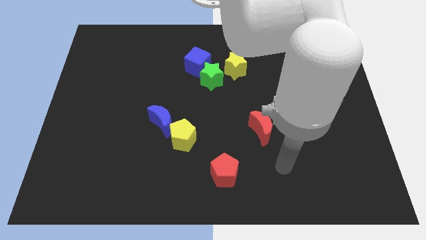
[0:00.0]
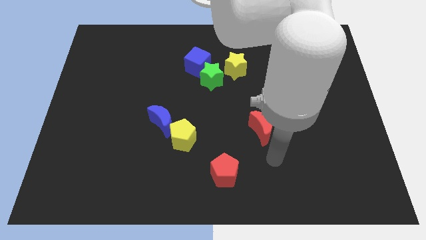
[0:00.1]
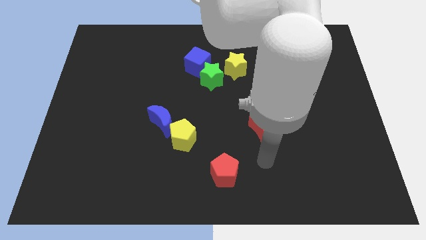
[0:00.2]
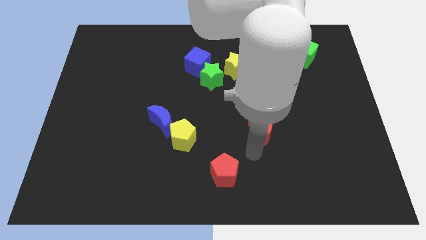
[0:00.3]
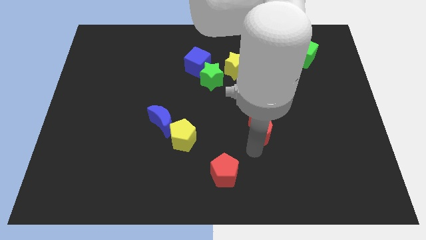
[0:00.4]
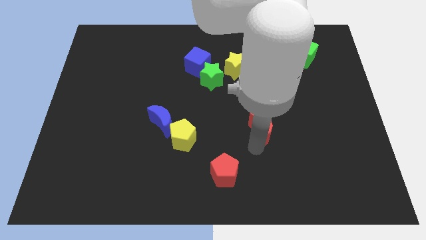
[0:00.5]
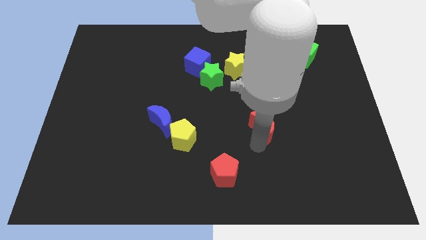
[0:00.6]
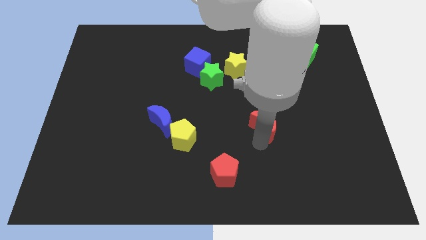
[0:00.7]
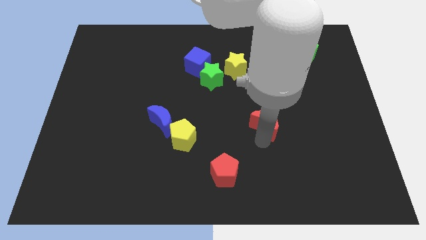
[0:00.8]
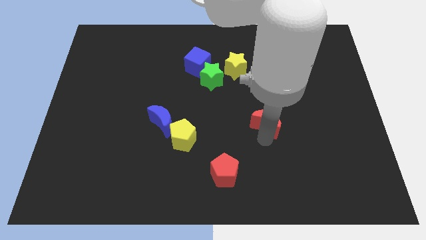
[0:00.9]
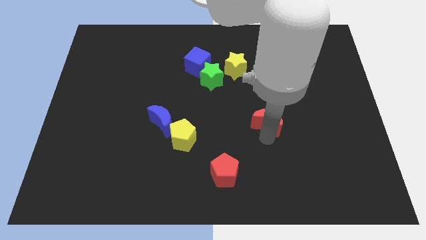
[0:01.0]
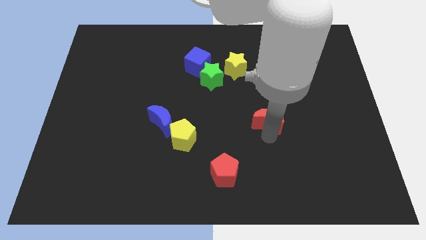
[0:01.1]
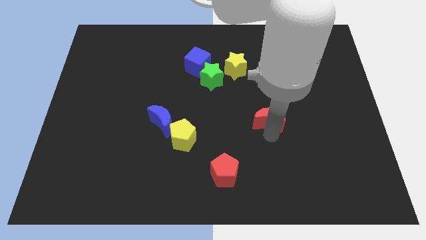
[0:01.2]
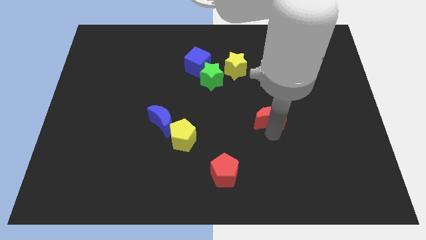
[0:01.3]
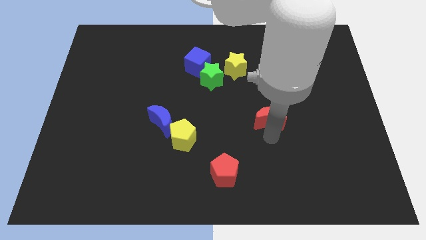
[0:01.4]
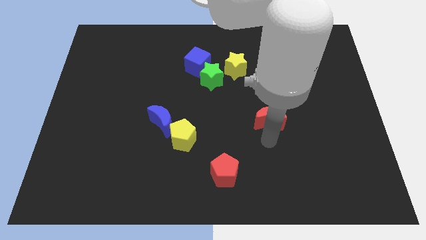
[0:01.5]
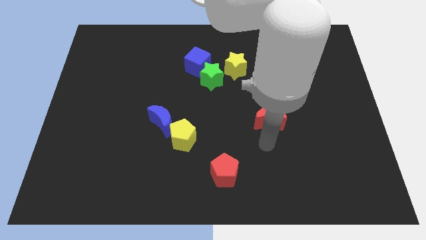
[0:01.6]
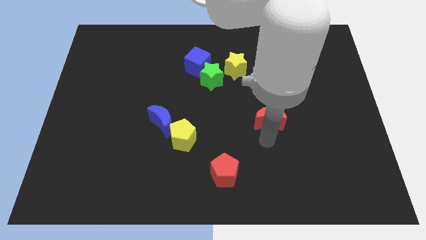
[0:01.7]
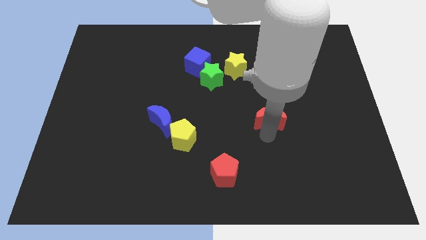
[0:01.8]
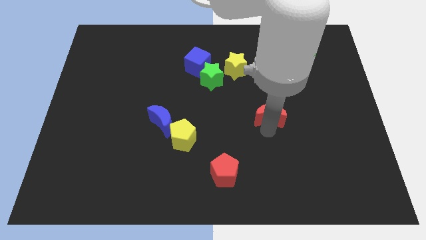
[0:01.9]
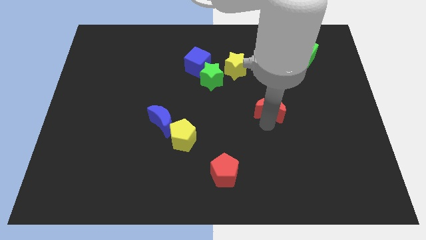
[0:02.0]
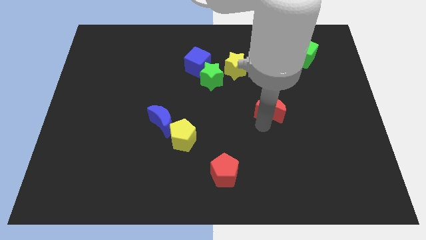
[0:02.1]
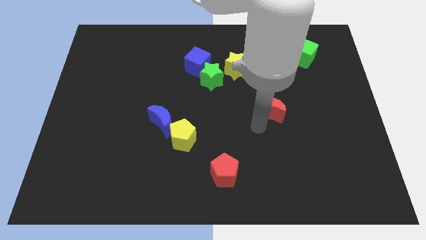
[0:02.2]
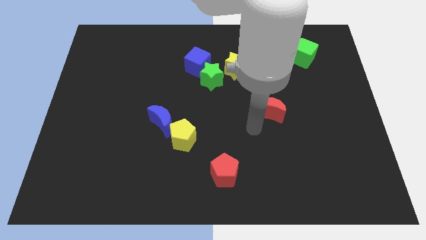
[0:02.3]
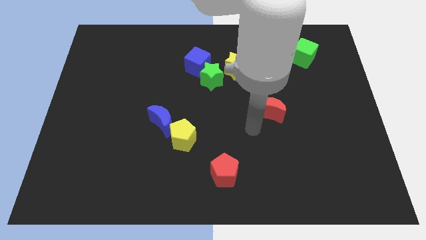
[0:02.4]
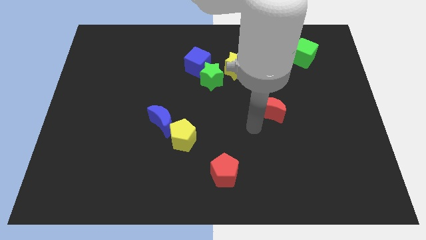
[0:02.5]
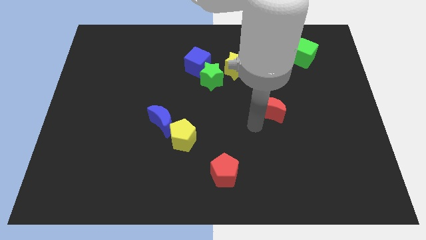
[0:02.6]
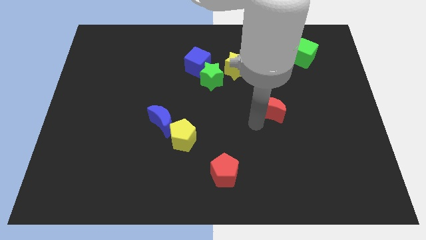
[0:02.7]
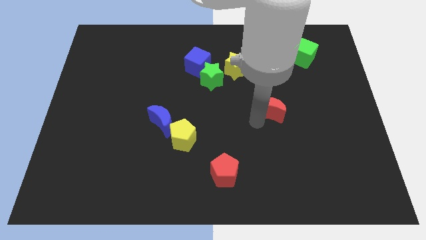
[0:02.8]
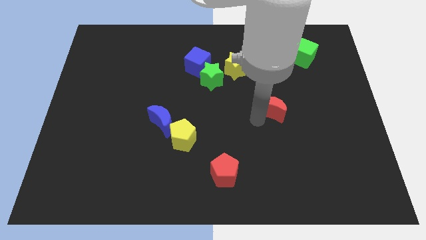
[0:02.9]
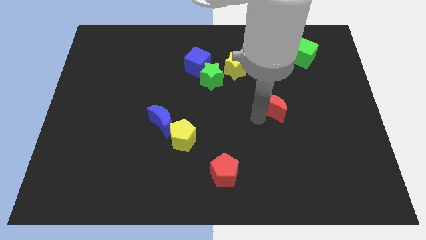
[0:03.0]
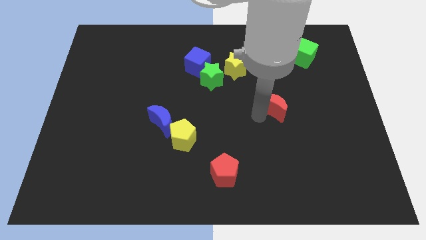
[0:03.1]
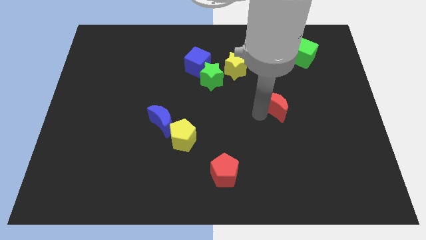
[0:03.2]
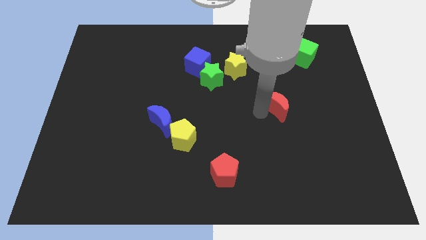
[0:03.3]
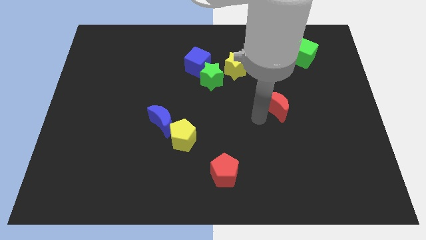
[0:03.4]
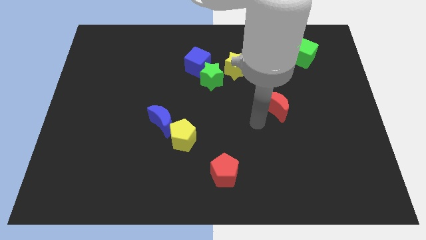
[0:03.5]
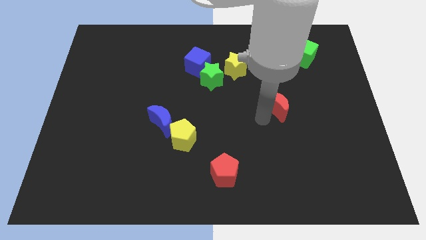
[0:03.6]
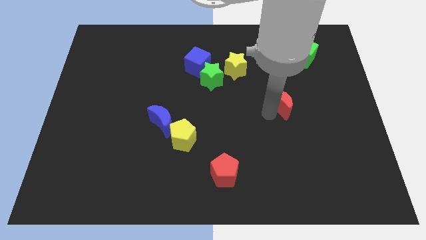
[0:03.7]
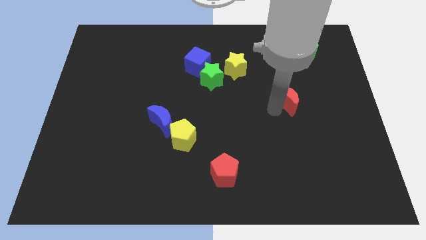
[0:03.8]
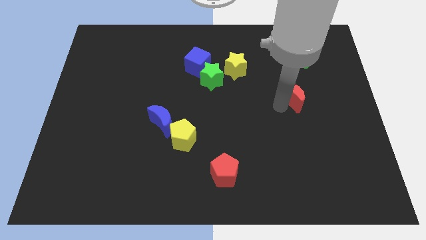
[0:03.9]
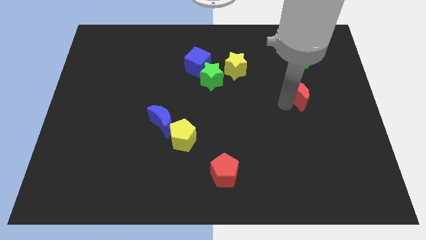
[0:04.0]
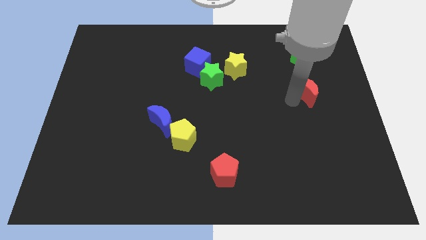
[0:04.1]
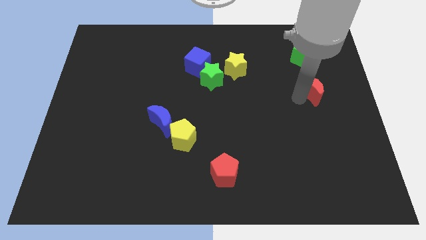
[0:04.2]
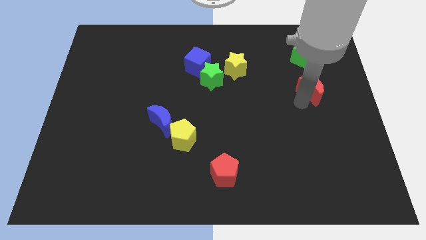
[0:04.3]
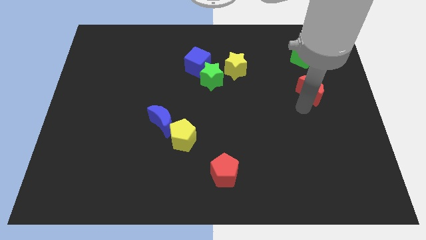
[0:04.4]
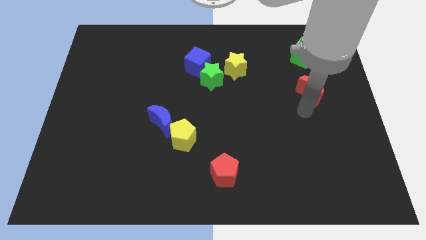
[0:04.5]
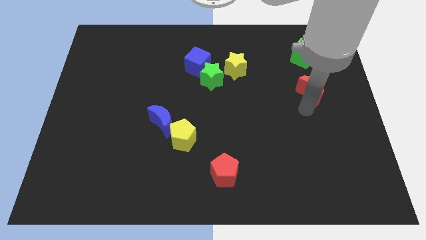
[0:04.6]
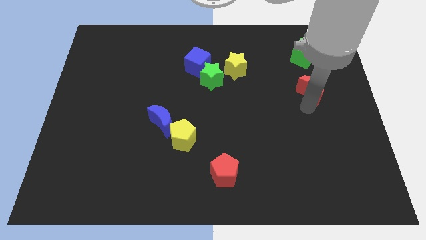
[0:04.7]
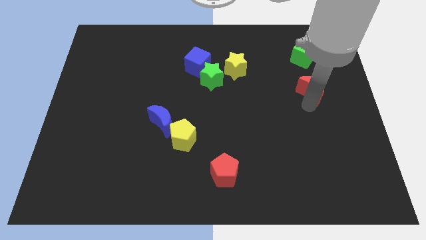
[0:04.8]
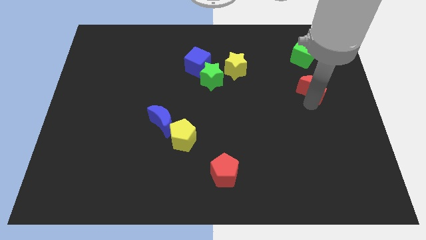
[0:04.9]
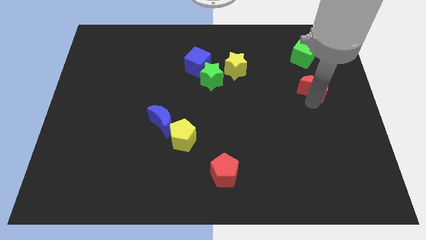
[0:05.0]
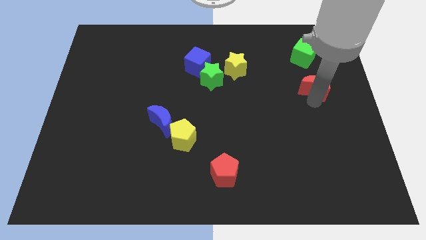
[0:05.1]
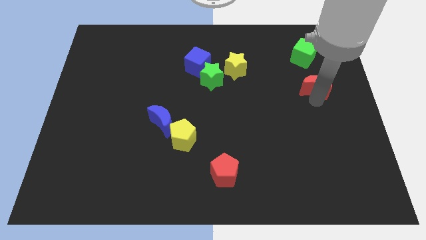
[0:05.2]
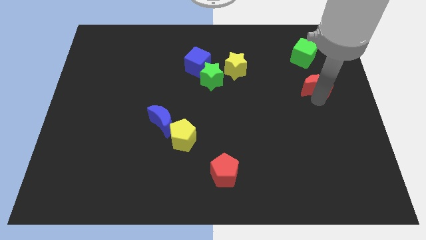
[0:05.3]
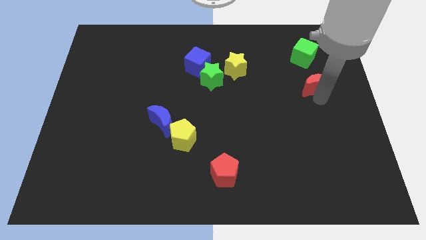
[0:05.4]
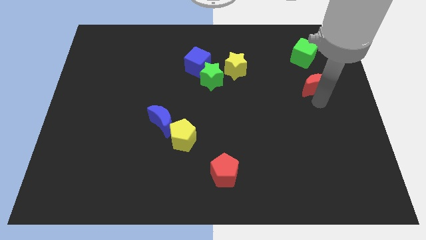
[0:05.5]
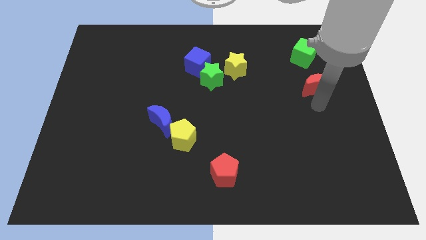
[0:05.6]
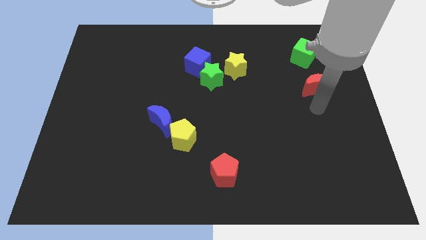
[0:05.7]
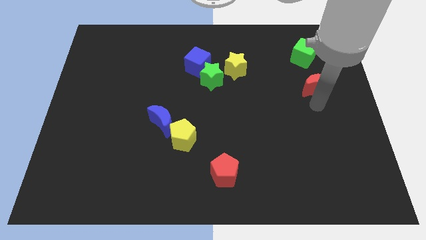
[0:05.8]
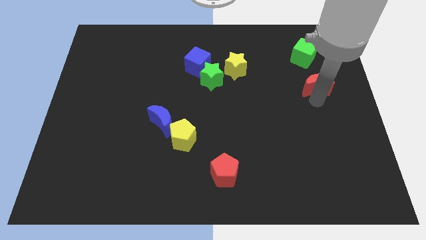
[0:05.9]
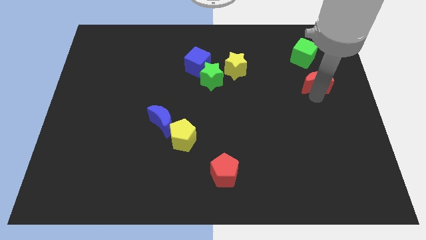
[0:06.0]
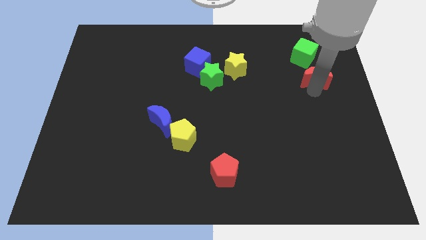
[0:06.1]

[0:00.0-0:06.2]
put the red moon diagonally down and to the right of the green cube

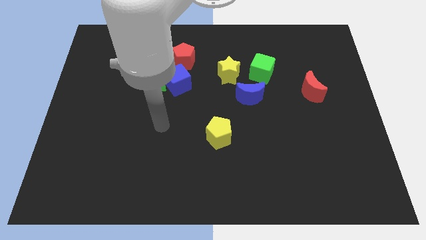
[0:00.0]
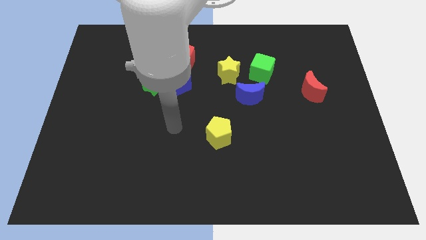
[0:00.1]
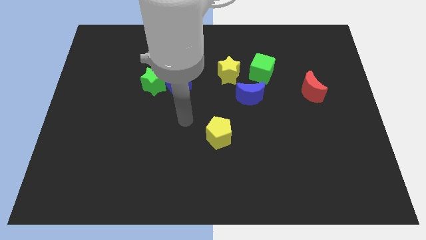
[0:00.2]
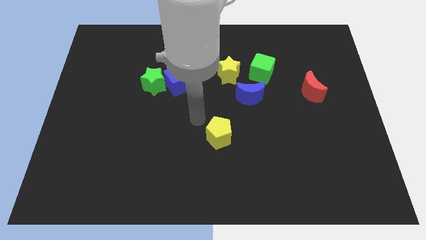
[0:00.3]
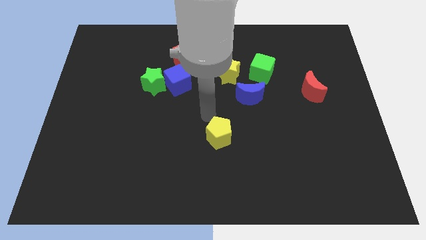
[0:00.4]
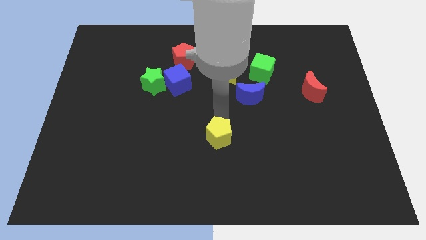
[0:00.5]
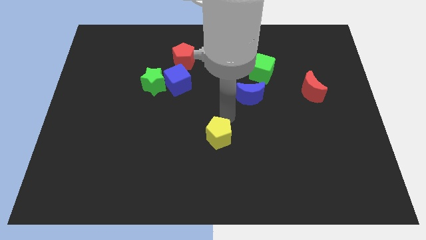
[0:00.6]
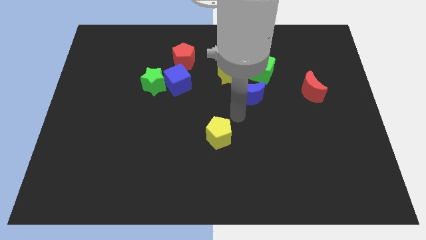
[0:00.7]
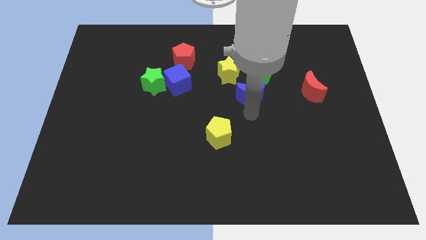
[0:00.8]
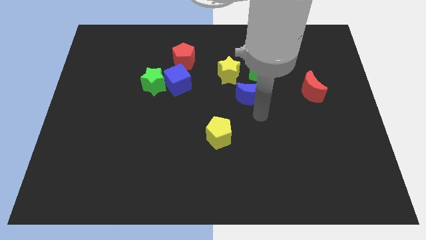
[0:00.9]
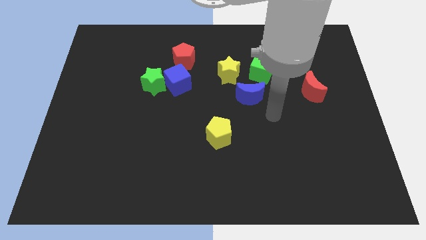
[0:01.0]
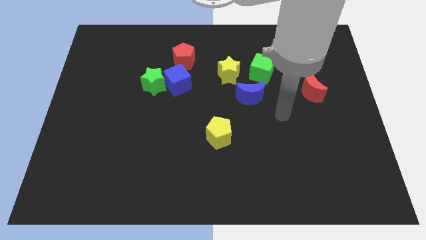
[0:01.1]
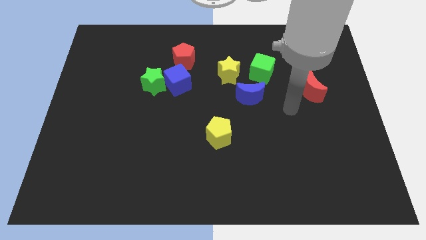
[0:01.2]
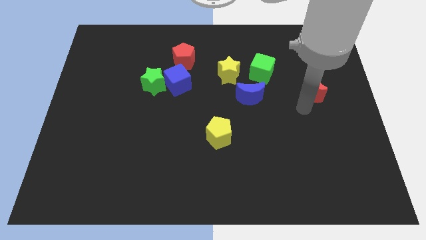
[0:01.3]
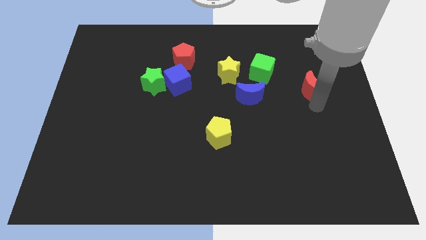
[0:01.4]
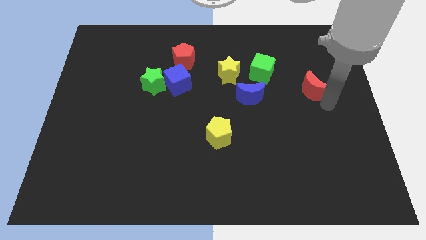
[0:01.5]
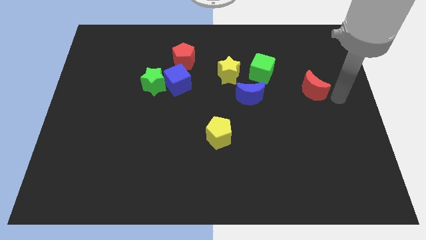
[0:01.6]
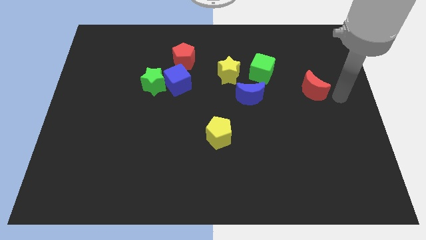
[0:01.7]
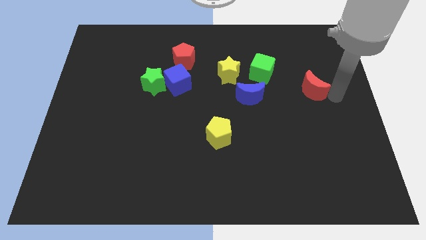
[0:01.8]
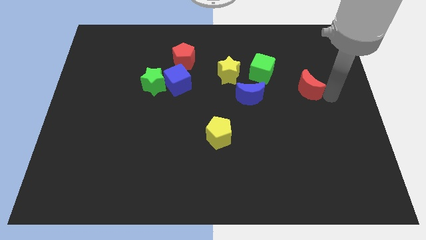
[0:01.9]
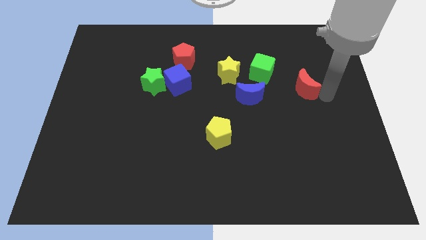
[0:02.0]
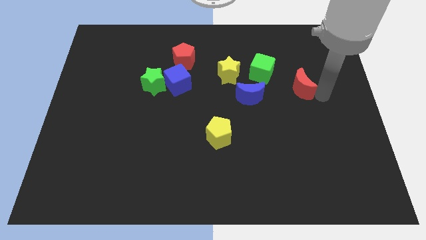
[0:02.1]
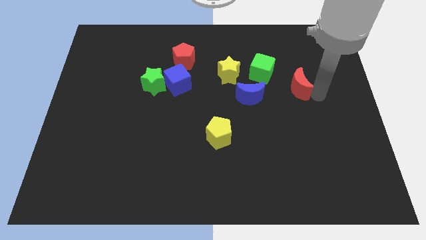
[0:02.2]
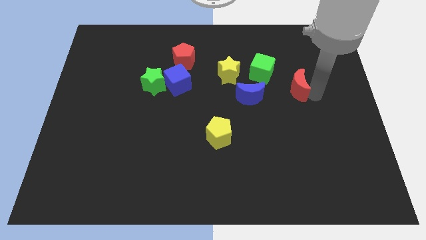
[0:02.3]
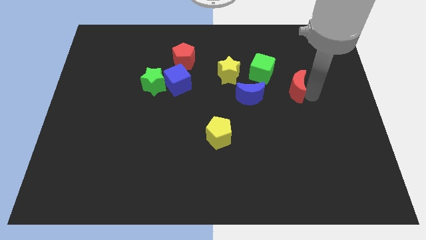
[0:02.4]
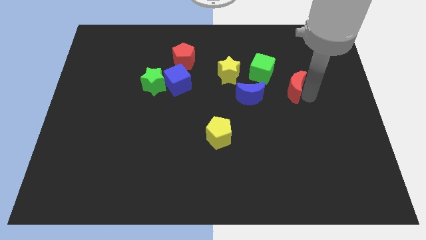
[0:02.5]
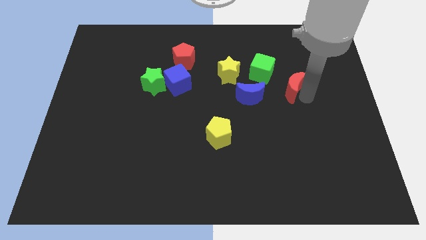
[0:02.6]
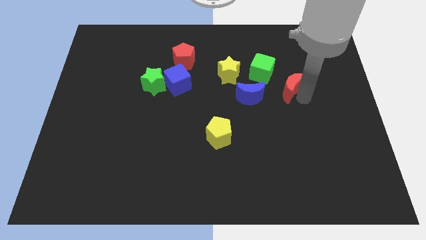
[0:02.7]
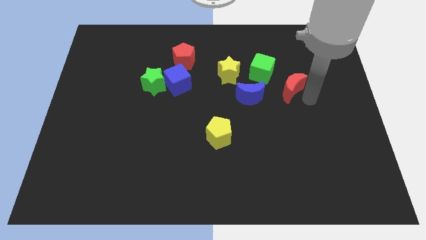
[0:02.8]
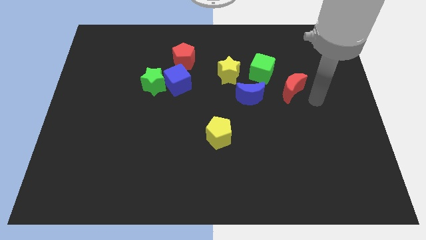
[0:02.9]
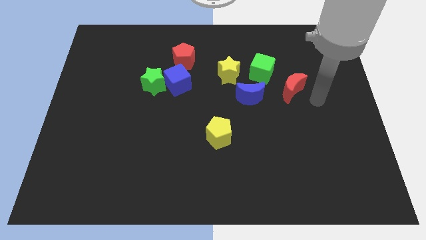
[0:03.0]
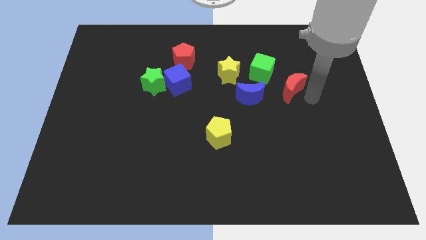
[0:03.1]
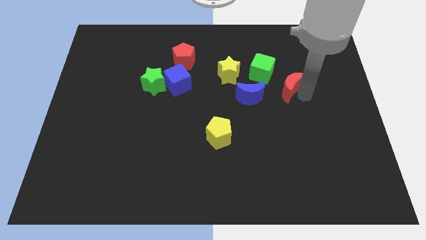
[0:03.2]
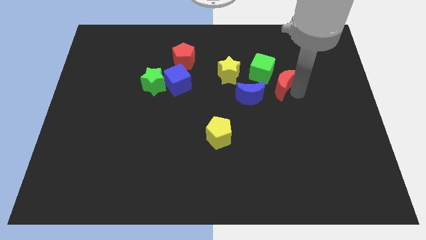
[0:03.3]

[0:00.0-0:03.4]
put the red moon to the top right side of the blue moon
